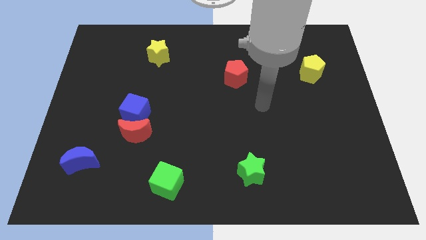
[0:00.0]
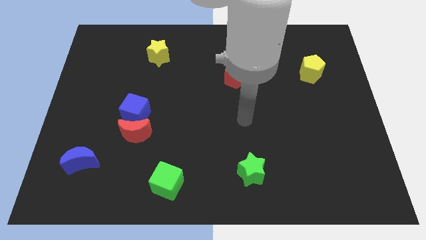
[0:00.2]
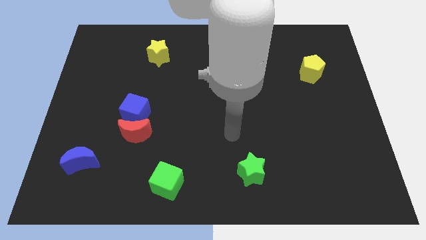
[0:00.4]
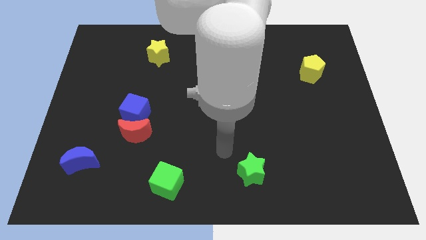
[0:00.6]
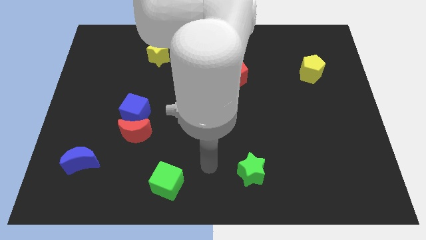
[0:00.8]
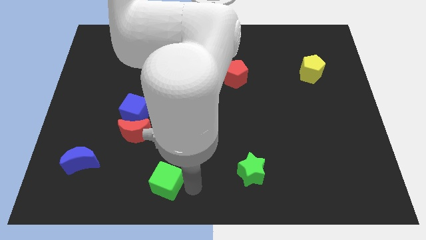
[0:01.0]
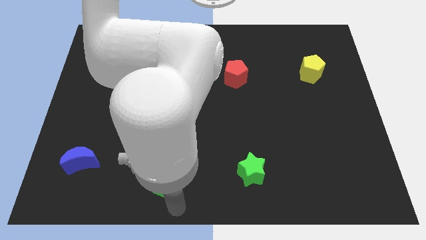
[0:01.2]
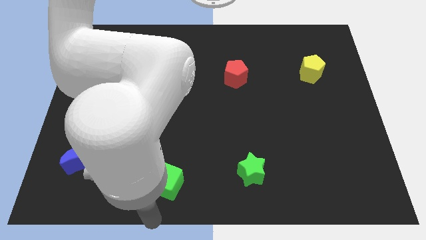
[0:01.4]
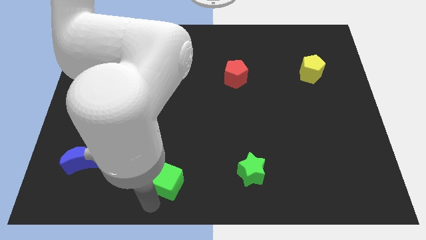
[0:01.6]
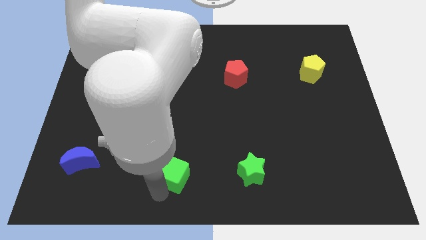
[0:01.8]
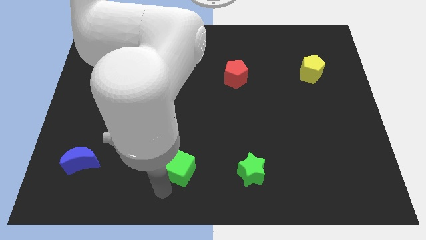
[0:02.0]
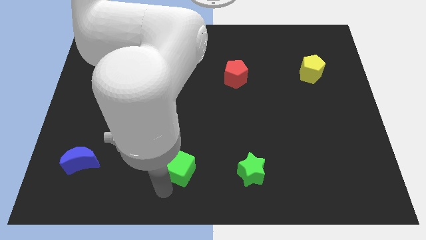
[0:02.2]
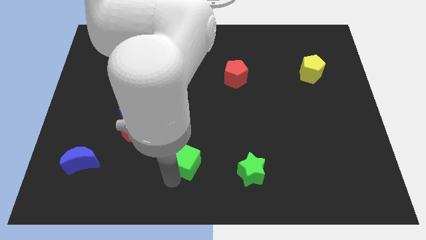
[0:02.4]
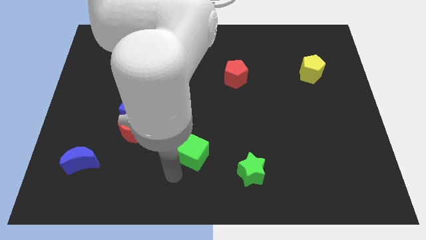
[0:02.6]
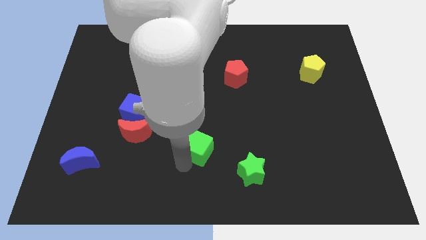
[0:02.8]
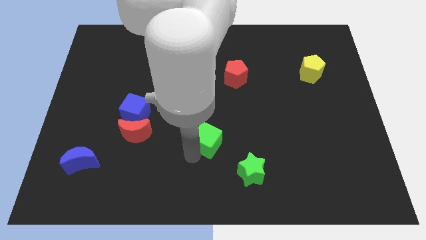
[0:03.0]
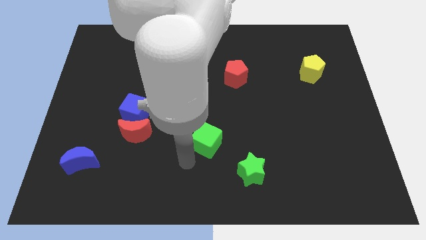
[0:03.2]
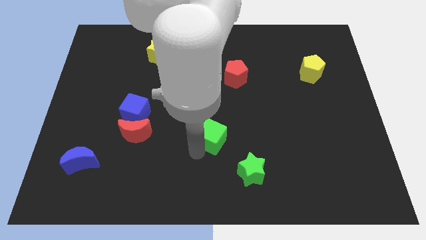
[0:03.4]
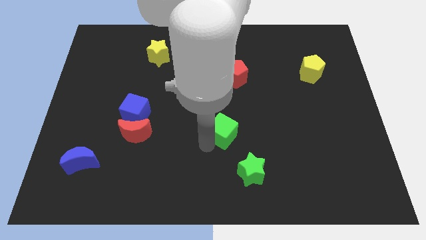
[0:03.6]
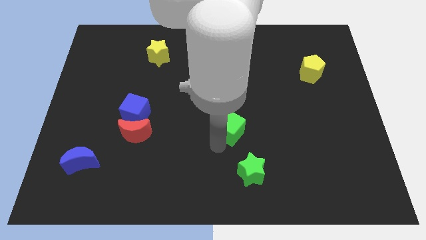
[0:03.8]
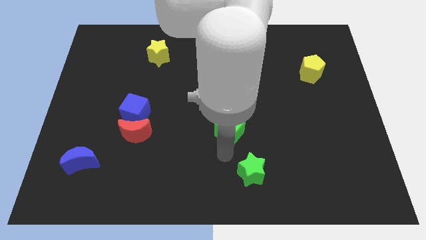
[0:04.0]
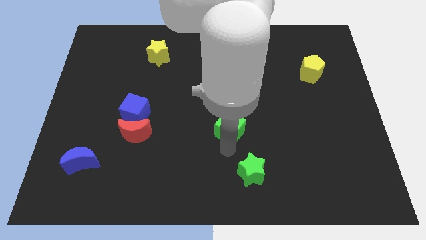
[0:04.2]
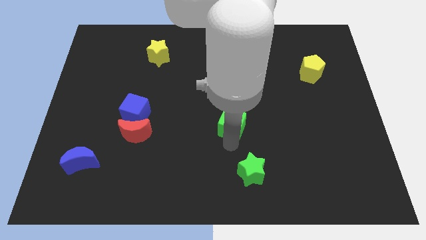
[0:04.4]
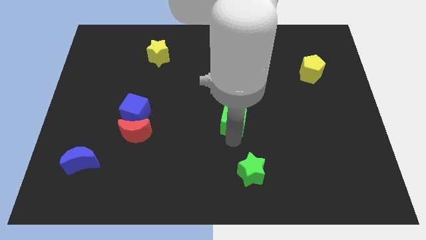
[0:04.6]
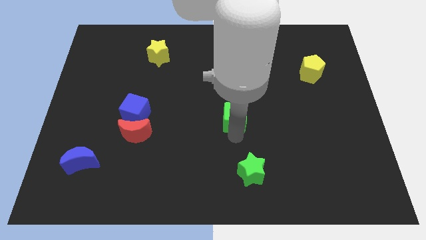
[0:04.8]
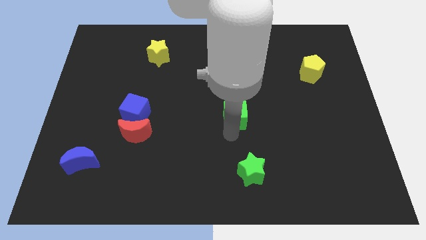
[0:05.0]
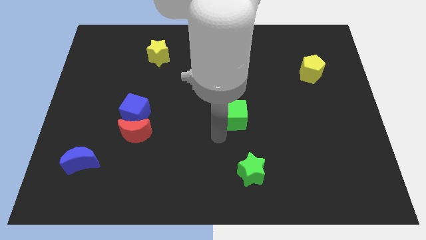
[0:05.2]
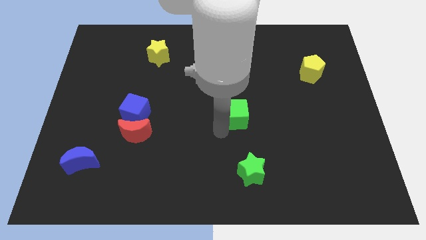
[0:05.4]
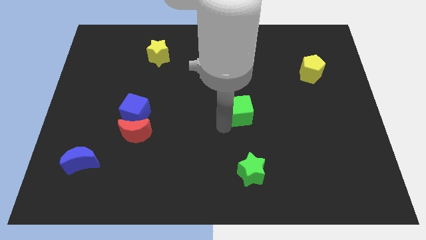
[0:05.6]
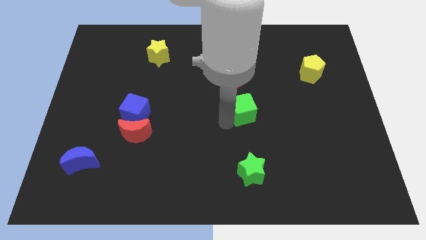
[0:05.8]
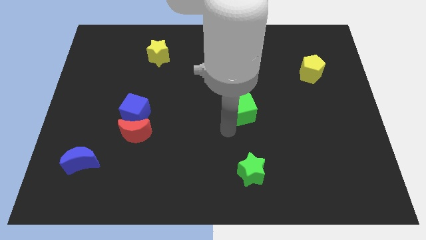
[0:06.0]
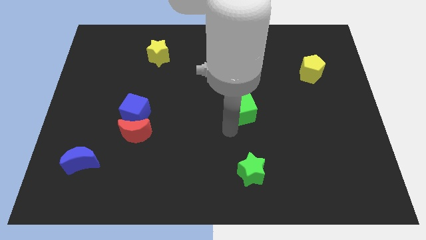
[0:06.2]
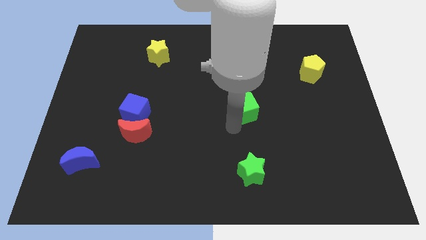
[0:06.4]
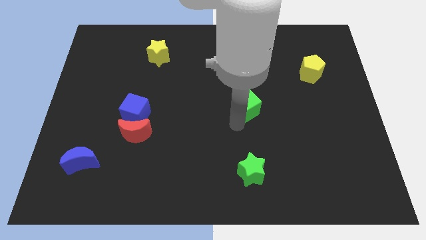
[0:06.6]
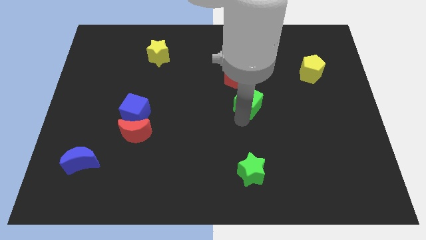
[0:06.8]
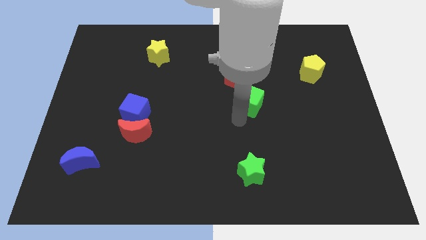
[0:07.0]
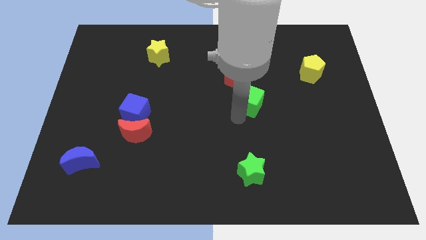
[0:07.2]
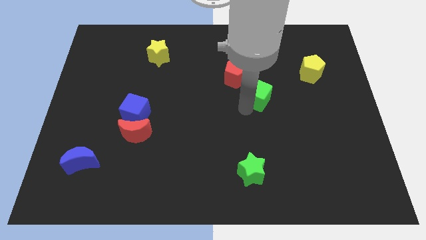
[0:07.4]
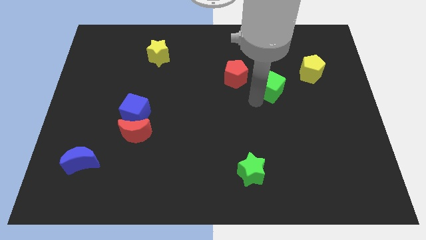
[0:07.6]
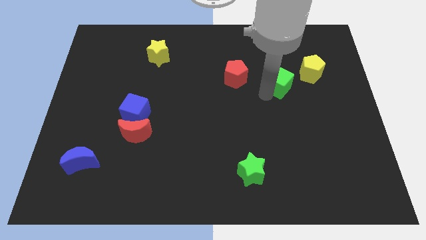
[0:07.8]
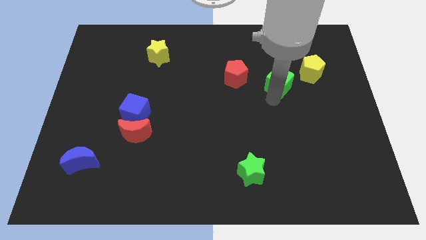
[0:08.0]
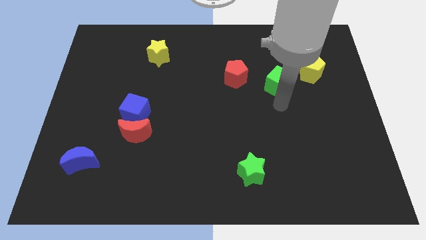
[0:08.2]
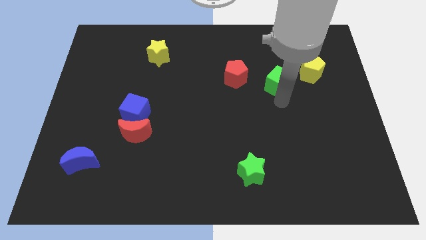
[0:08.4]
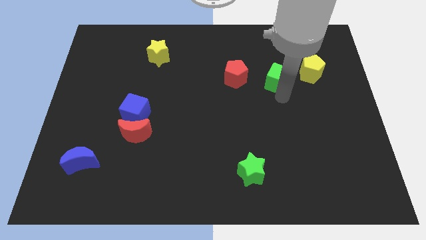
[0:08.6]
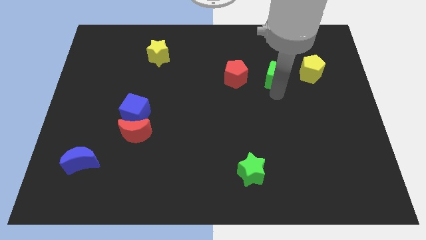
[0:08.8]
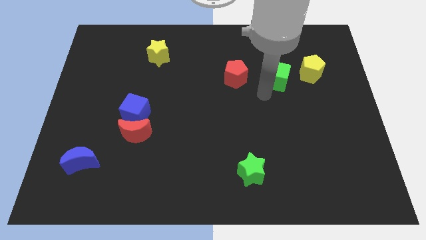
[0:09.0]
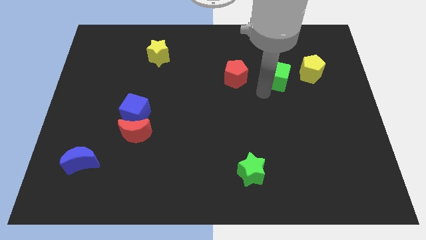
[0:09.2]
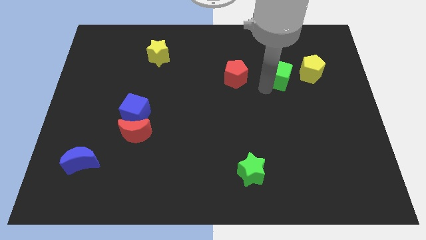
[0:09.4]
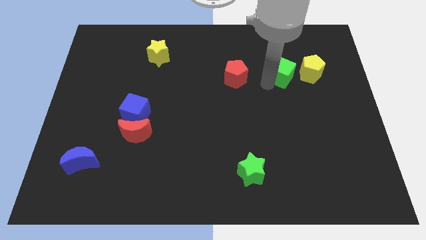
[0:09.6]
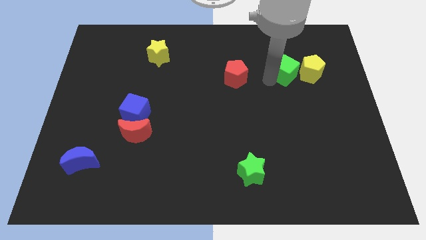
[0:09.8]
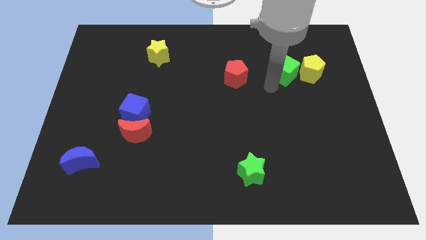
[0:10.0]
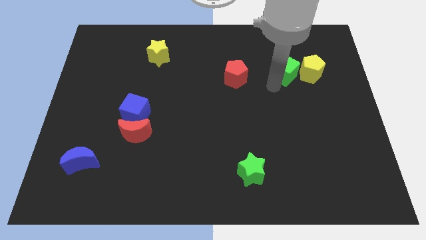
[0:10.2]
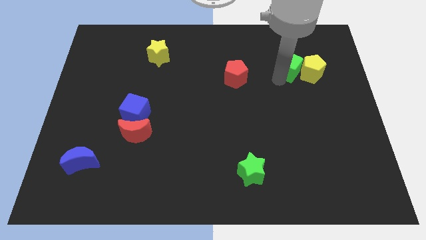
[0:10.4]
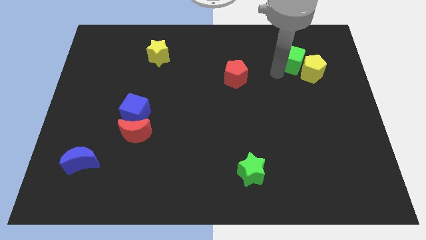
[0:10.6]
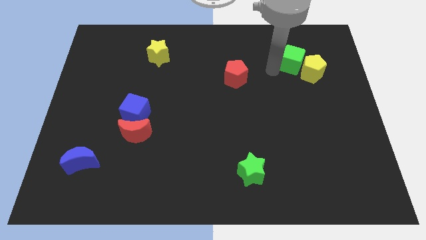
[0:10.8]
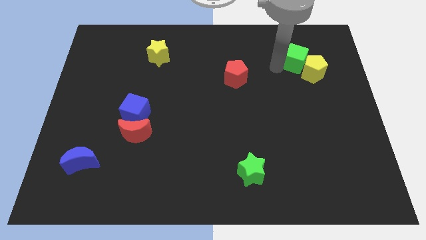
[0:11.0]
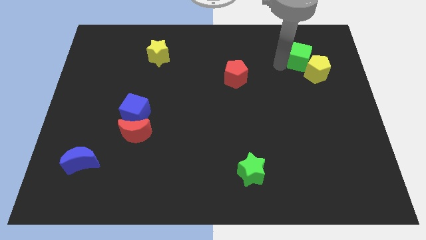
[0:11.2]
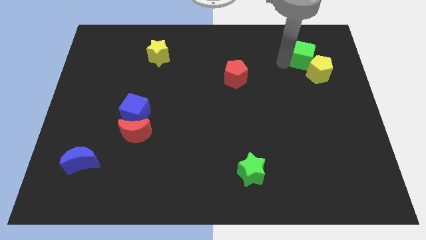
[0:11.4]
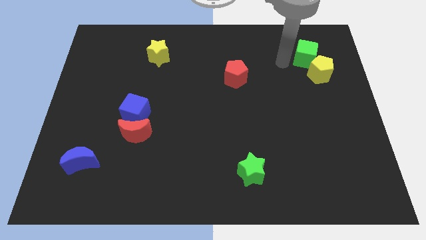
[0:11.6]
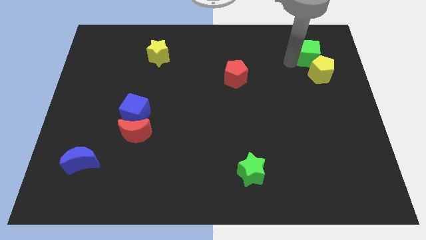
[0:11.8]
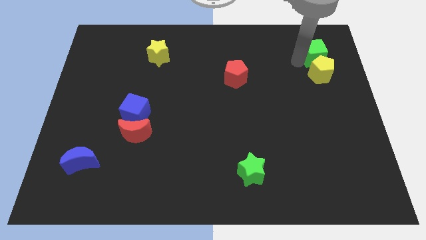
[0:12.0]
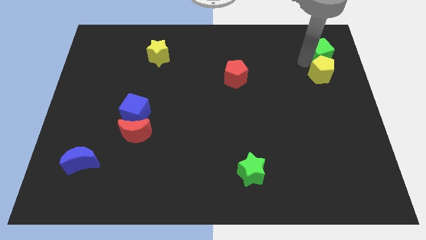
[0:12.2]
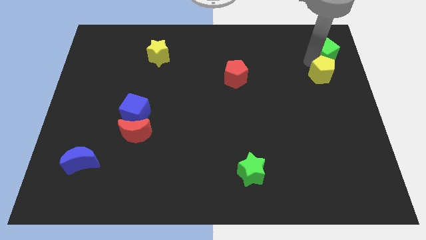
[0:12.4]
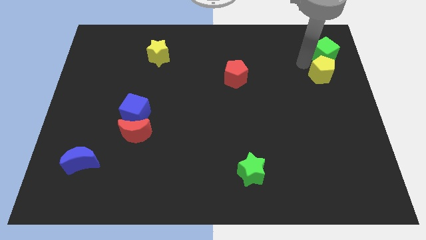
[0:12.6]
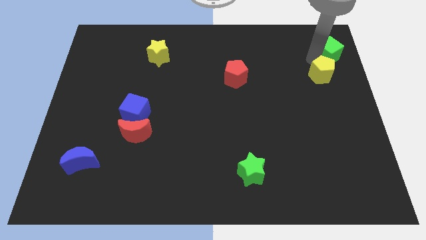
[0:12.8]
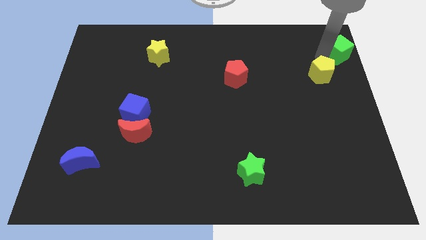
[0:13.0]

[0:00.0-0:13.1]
slide the green cube to the top right of the board

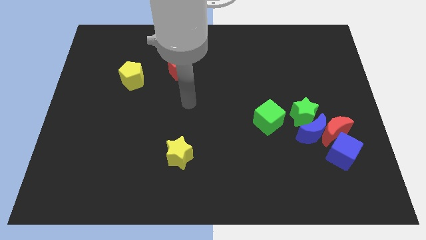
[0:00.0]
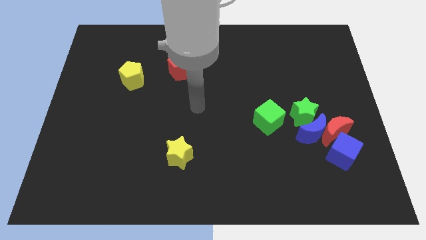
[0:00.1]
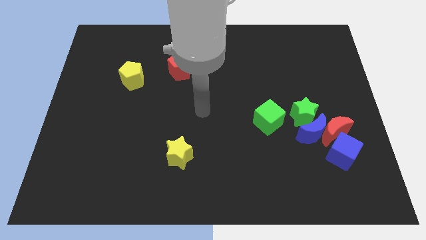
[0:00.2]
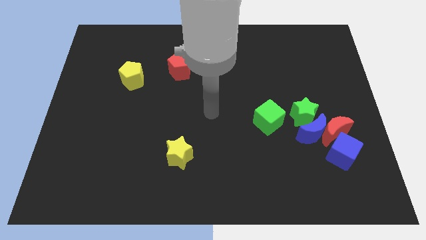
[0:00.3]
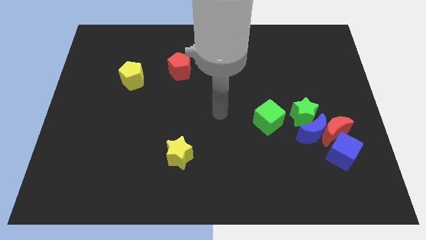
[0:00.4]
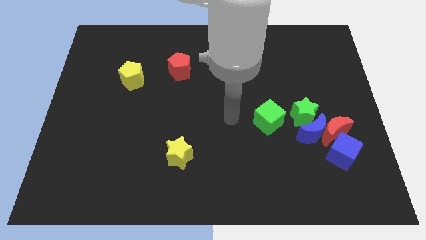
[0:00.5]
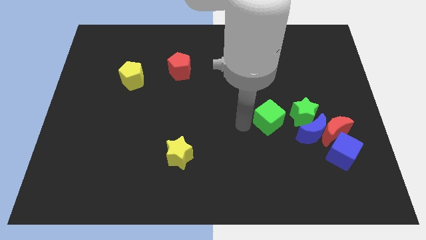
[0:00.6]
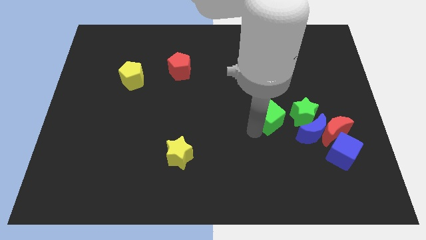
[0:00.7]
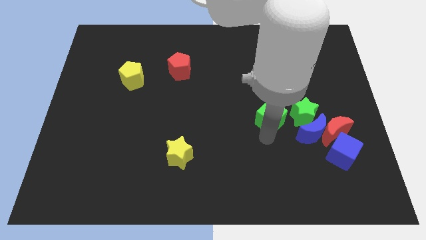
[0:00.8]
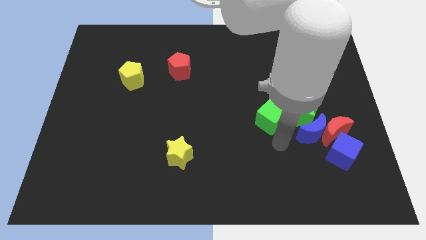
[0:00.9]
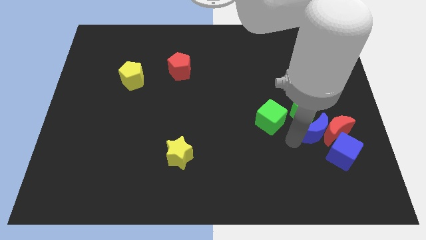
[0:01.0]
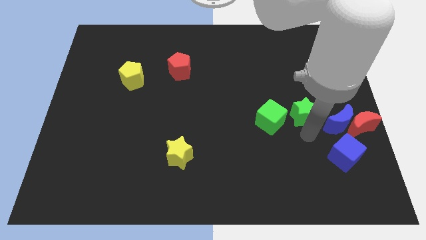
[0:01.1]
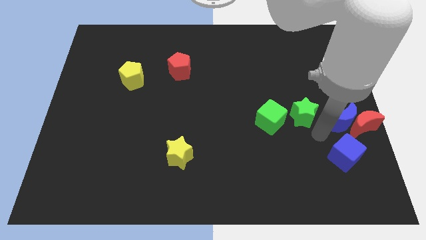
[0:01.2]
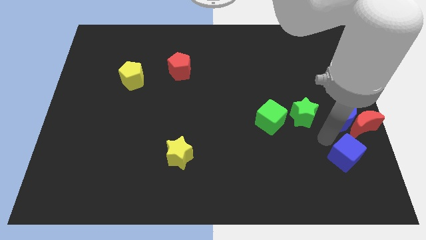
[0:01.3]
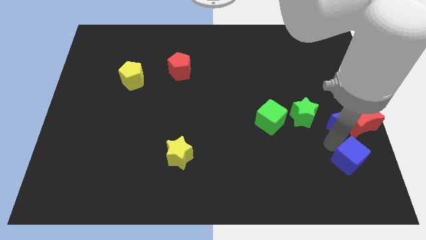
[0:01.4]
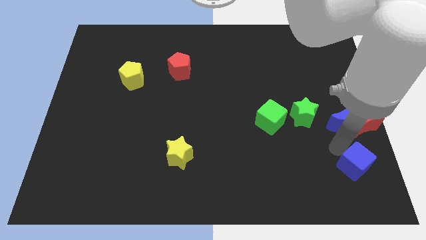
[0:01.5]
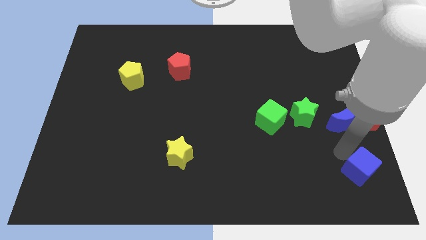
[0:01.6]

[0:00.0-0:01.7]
put the blue cube to the bottom right of the board
